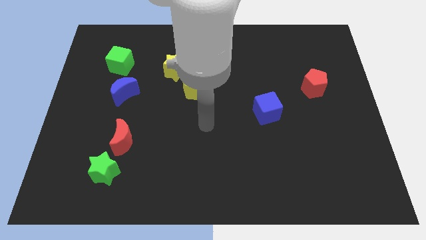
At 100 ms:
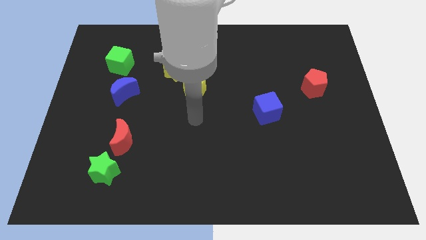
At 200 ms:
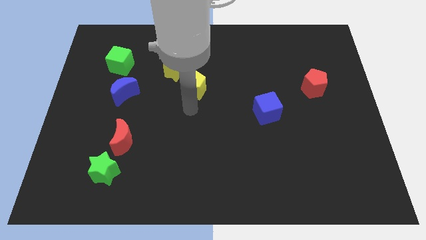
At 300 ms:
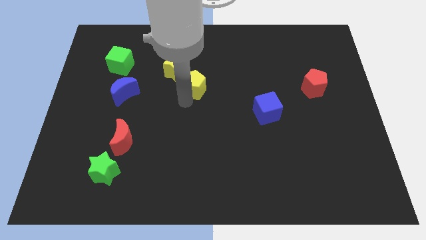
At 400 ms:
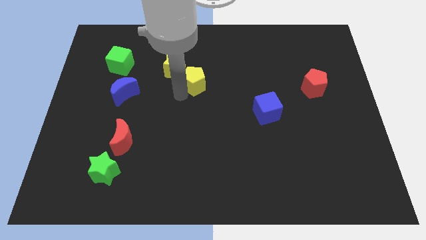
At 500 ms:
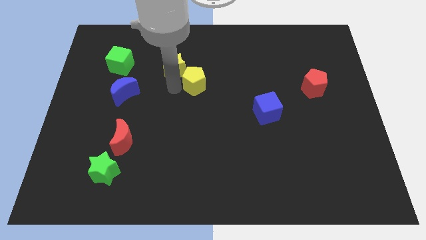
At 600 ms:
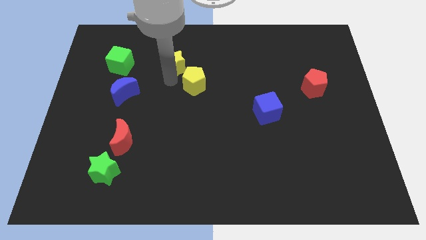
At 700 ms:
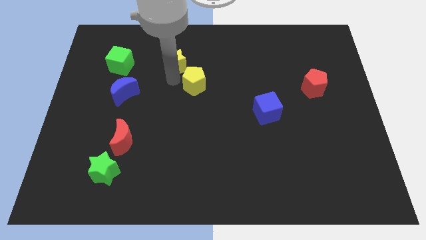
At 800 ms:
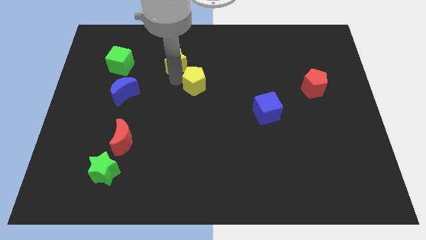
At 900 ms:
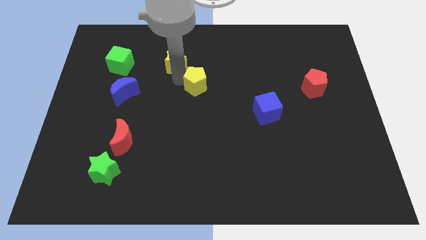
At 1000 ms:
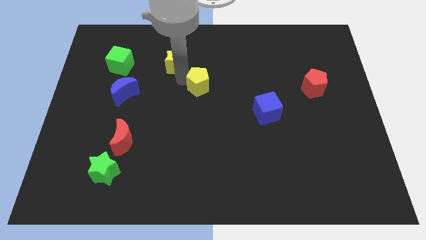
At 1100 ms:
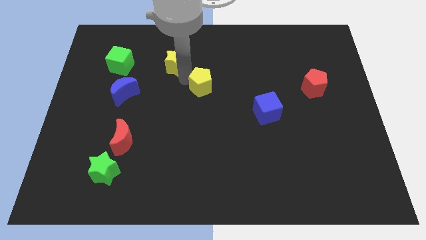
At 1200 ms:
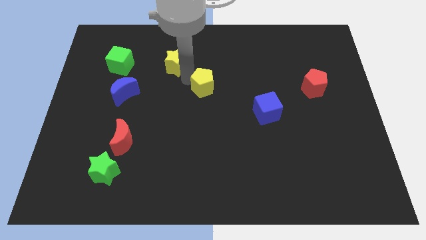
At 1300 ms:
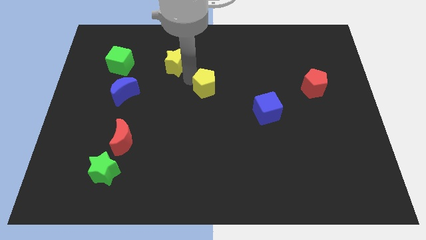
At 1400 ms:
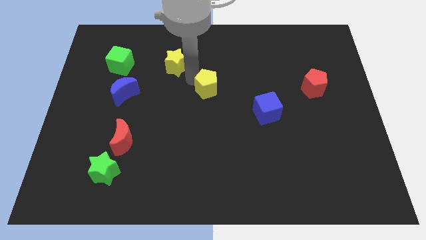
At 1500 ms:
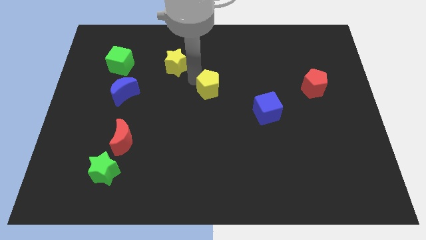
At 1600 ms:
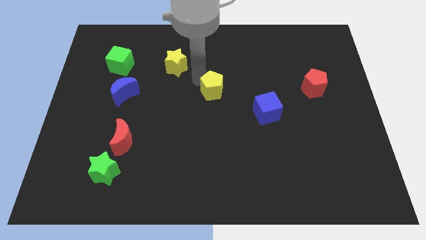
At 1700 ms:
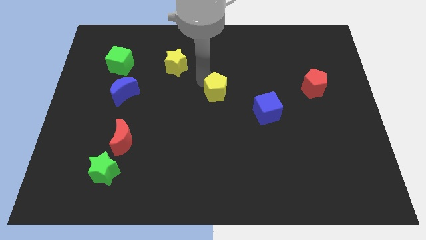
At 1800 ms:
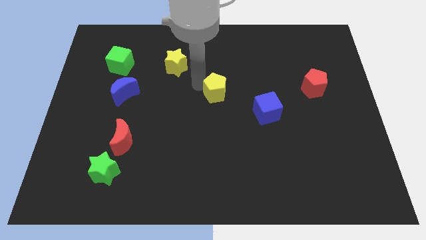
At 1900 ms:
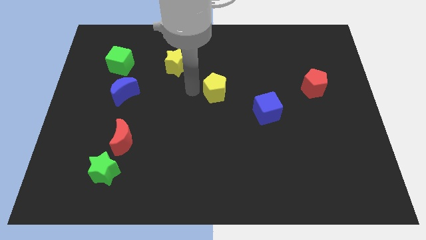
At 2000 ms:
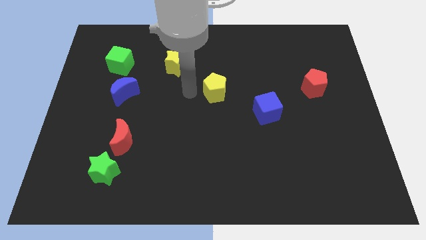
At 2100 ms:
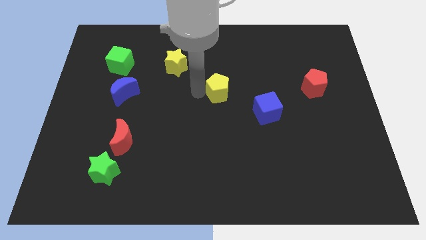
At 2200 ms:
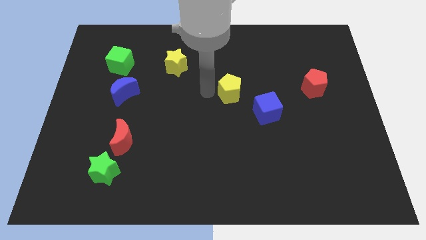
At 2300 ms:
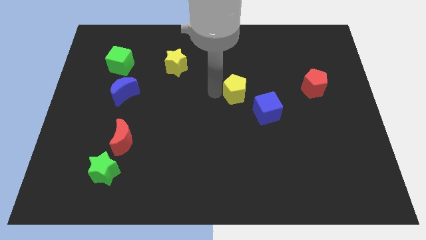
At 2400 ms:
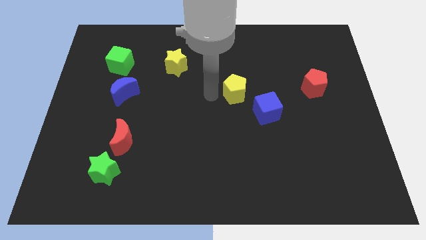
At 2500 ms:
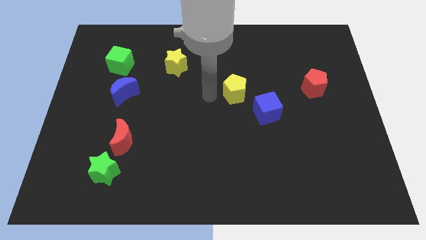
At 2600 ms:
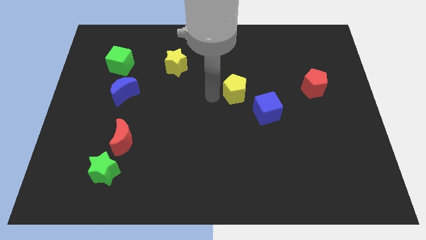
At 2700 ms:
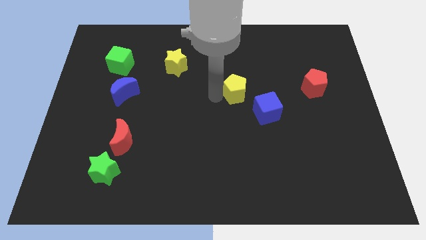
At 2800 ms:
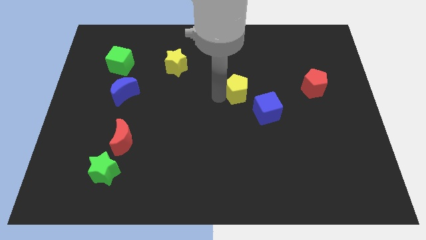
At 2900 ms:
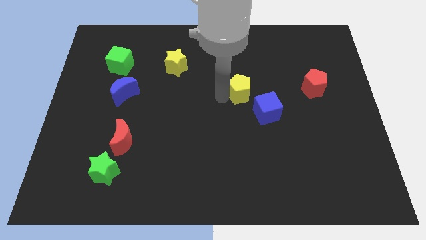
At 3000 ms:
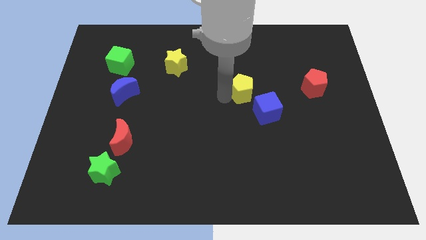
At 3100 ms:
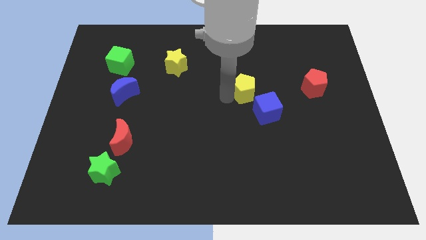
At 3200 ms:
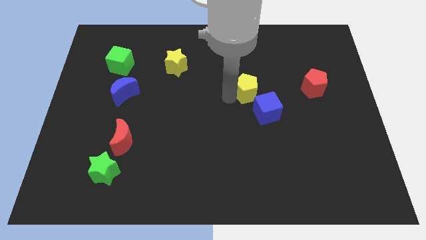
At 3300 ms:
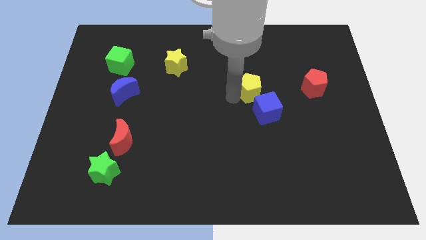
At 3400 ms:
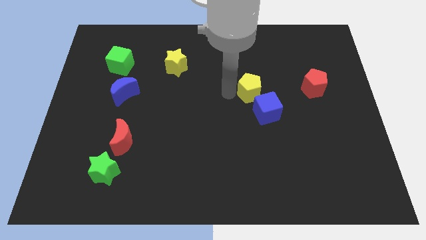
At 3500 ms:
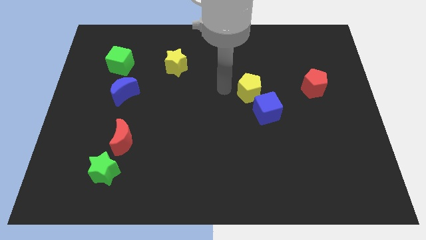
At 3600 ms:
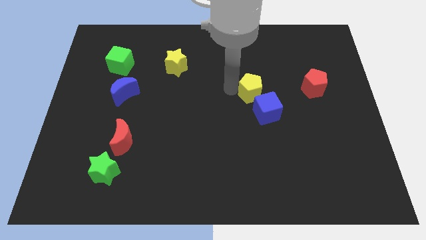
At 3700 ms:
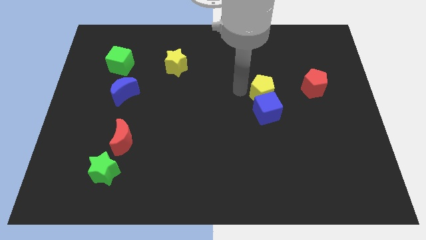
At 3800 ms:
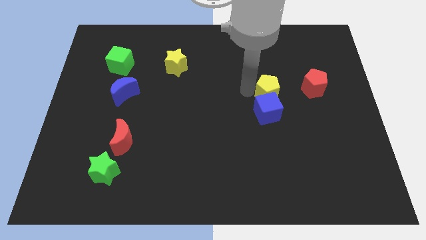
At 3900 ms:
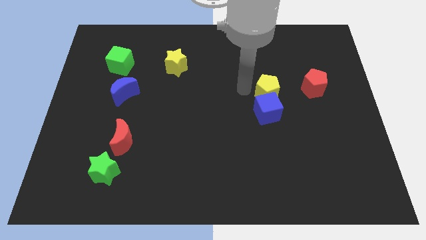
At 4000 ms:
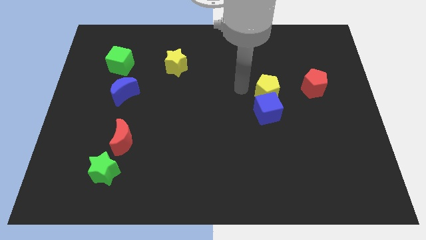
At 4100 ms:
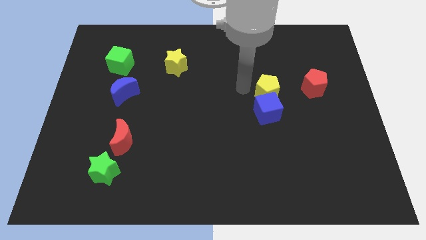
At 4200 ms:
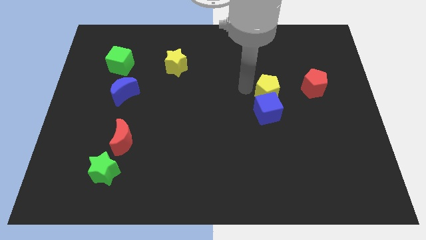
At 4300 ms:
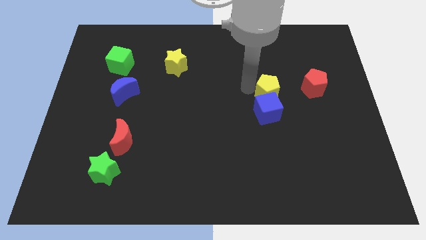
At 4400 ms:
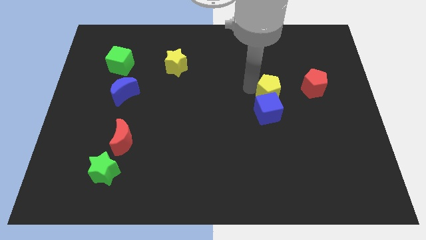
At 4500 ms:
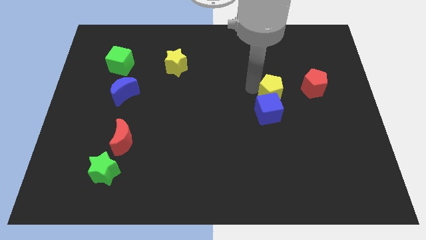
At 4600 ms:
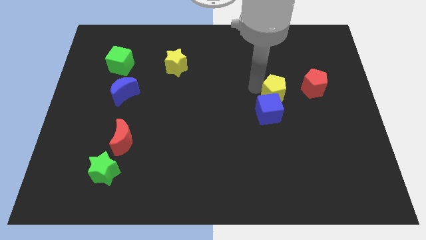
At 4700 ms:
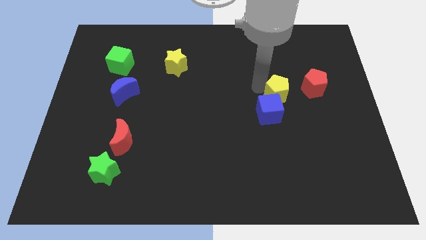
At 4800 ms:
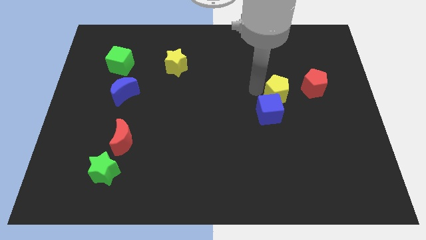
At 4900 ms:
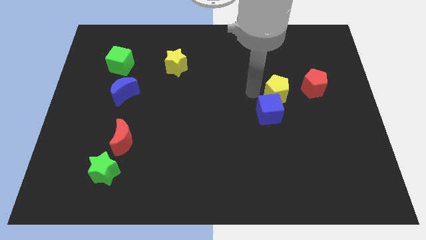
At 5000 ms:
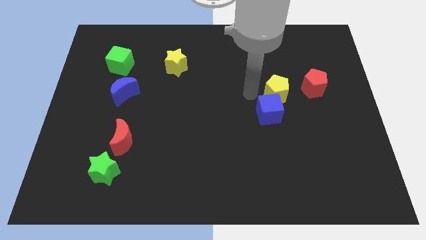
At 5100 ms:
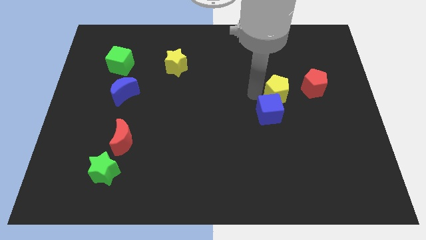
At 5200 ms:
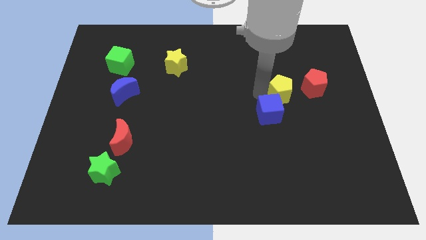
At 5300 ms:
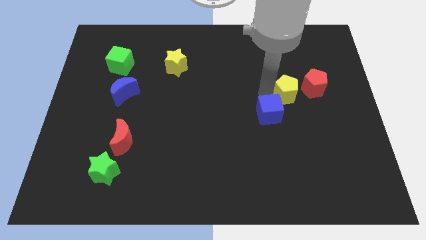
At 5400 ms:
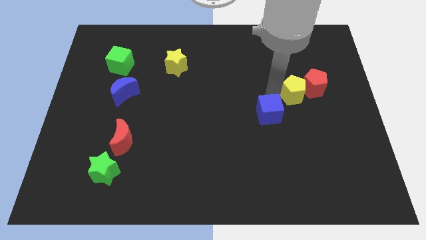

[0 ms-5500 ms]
move the yellow pentagon close to the red pentagon

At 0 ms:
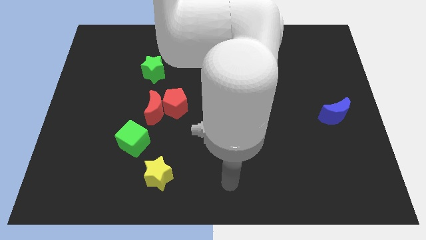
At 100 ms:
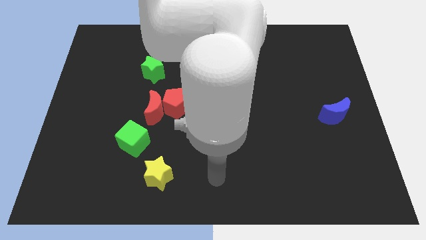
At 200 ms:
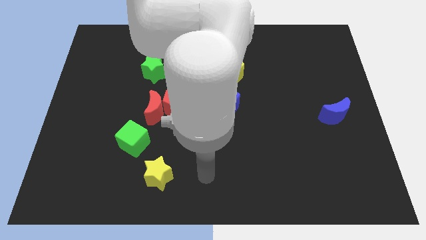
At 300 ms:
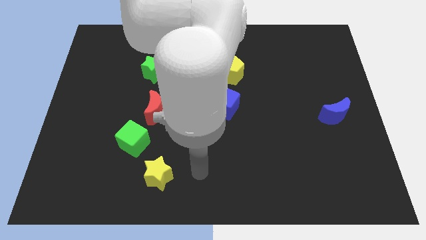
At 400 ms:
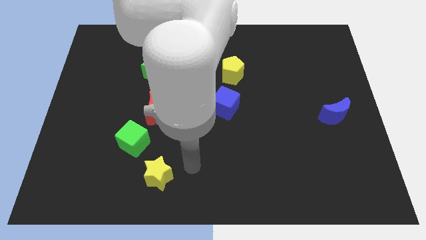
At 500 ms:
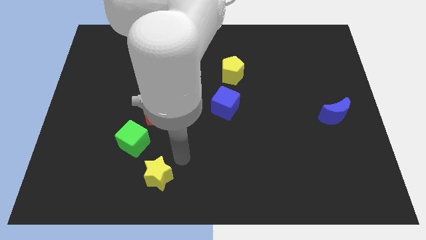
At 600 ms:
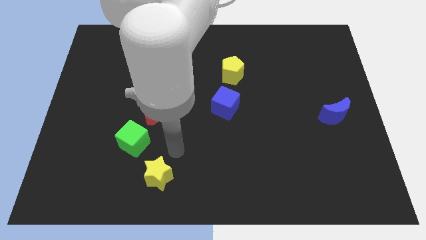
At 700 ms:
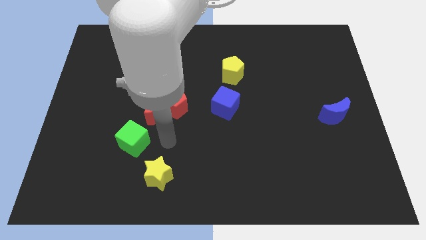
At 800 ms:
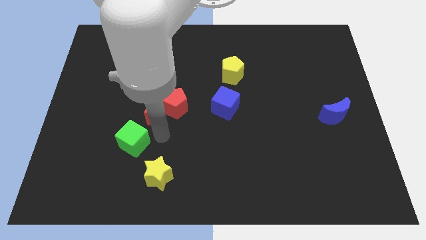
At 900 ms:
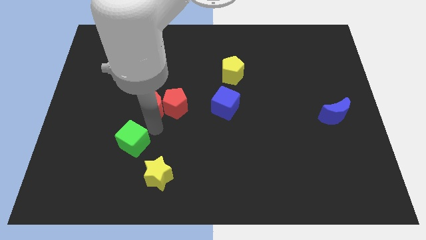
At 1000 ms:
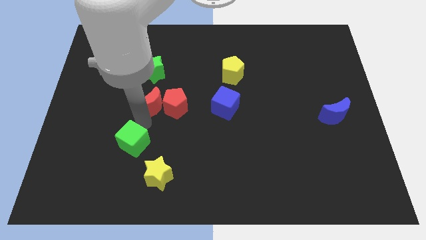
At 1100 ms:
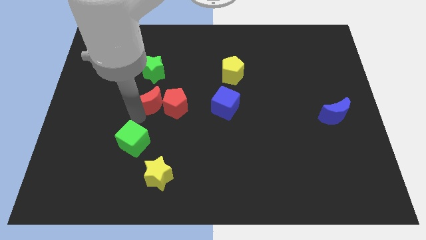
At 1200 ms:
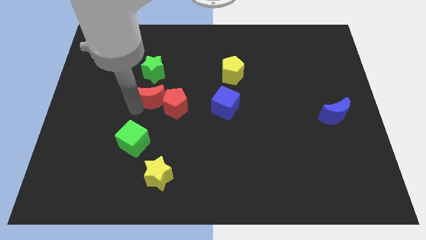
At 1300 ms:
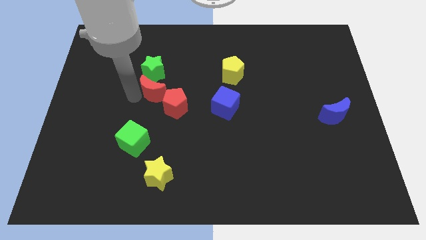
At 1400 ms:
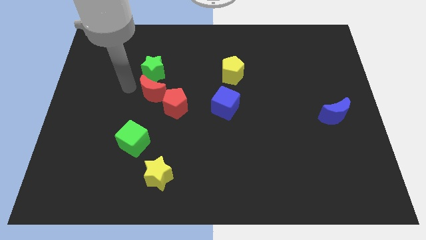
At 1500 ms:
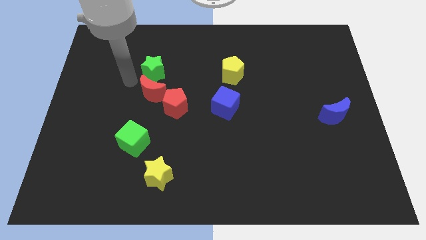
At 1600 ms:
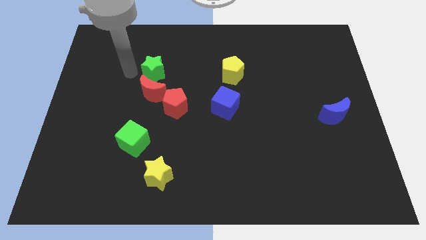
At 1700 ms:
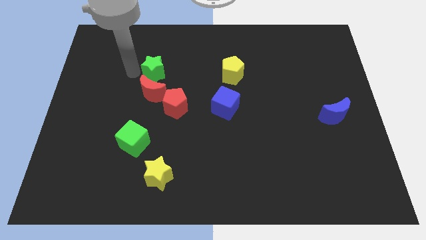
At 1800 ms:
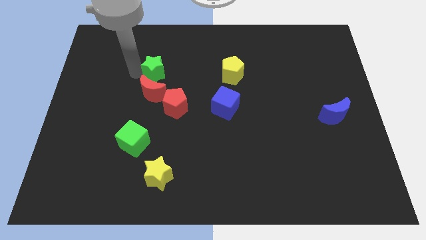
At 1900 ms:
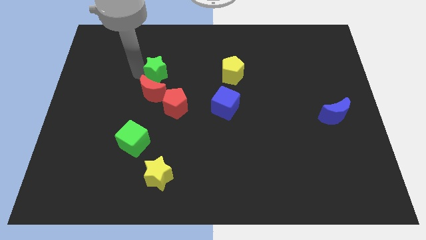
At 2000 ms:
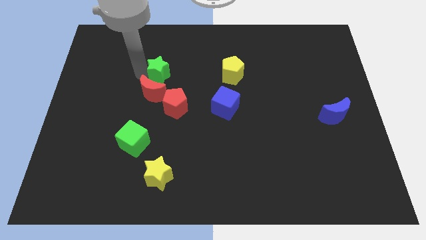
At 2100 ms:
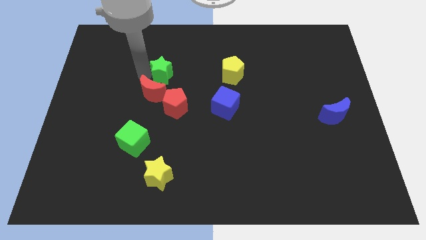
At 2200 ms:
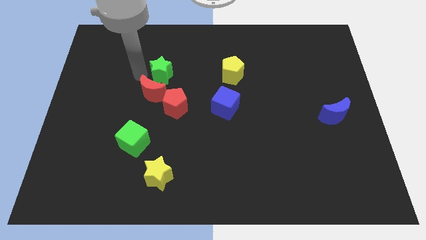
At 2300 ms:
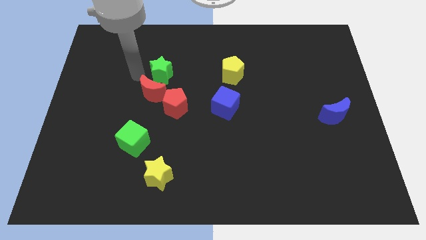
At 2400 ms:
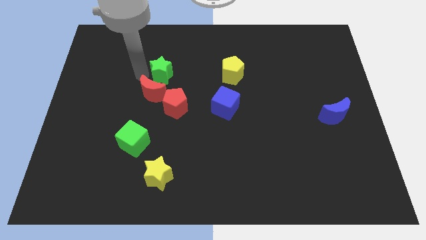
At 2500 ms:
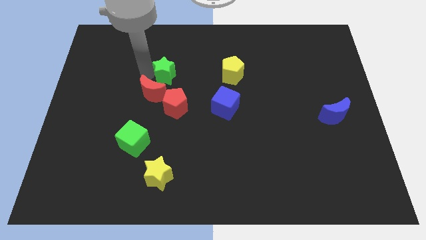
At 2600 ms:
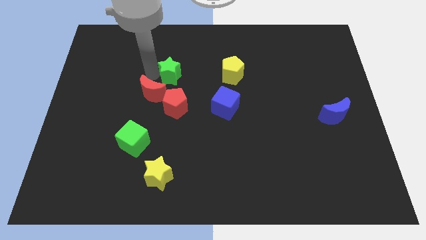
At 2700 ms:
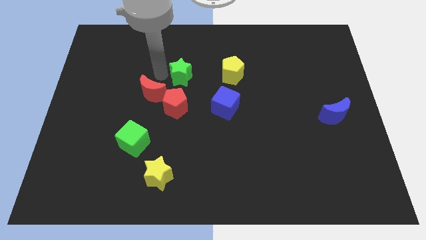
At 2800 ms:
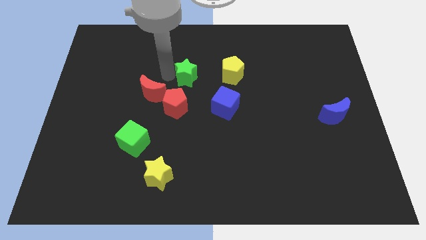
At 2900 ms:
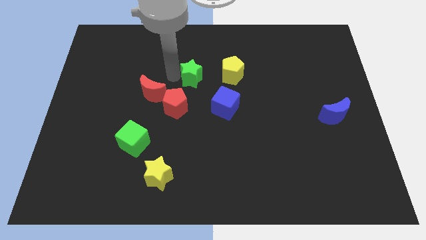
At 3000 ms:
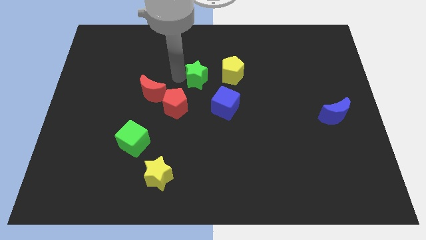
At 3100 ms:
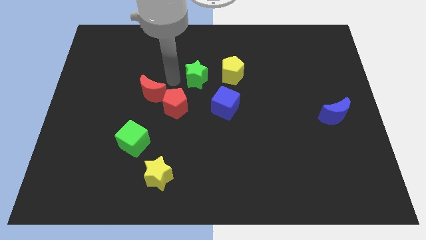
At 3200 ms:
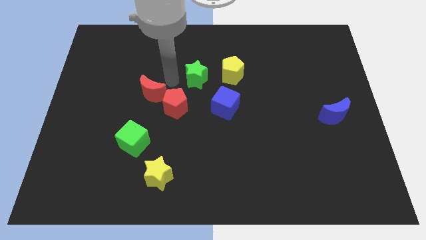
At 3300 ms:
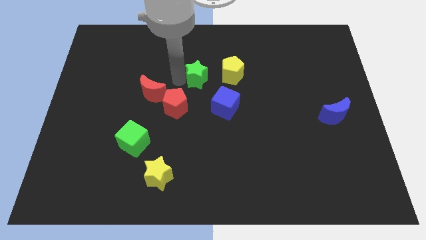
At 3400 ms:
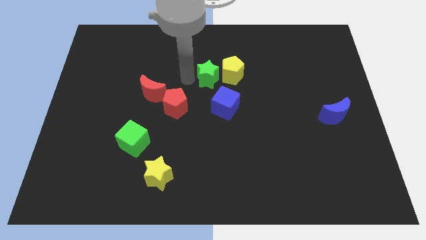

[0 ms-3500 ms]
slide the green star to the yellow pentagon
